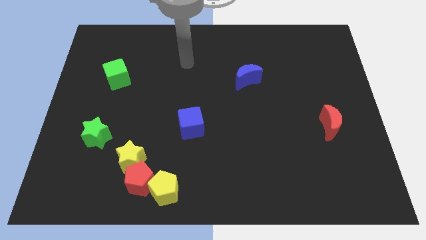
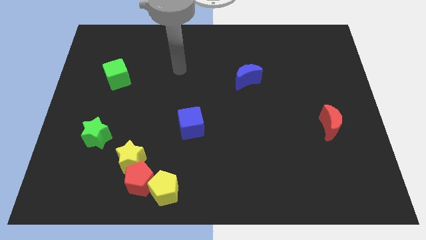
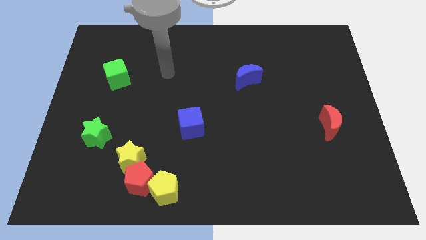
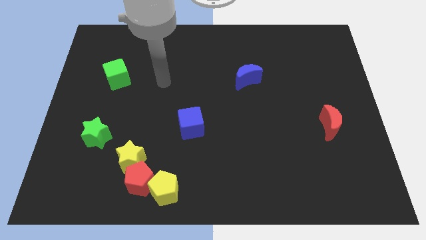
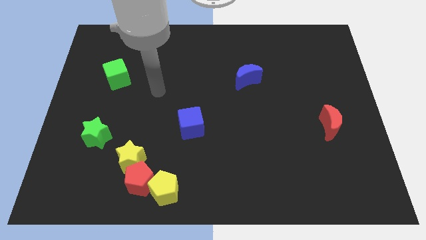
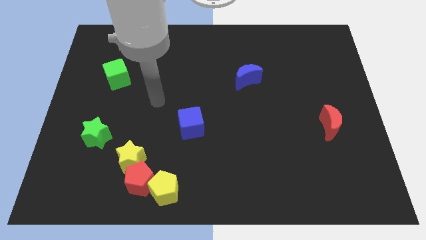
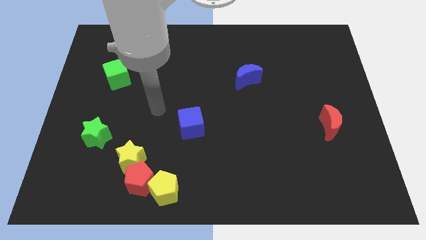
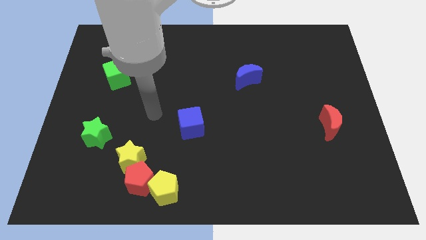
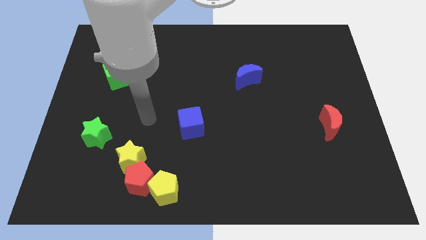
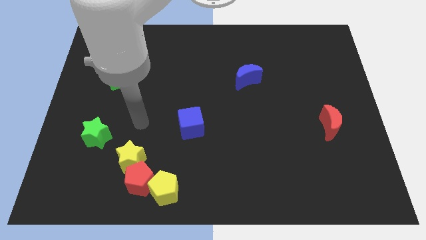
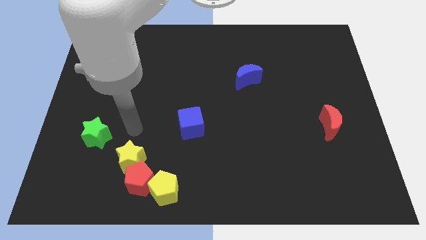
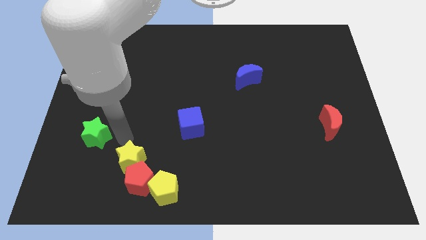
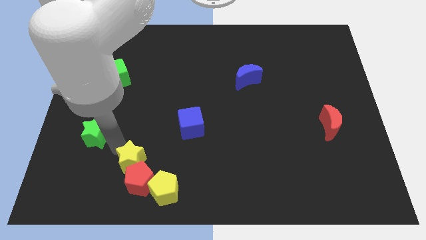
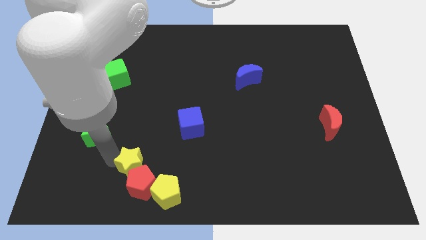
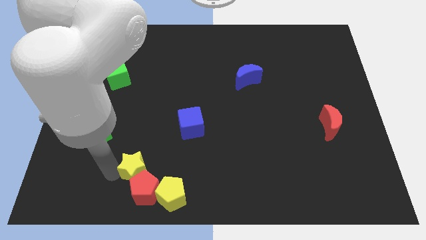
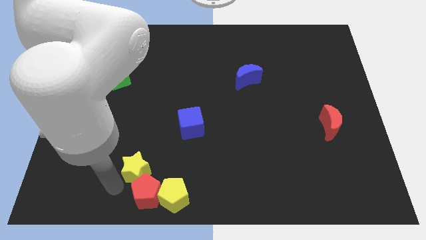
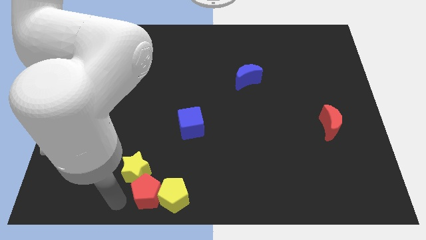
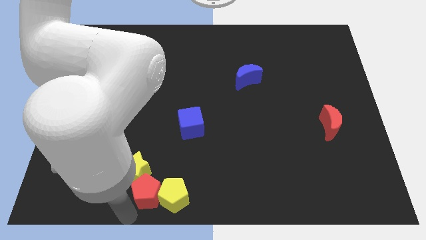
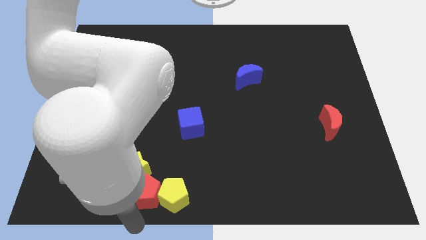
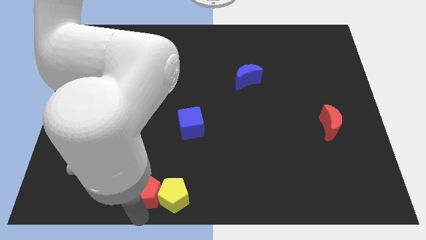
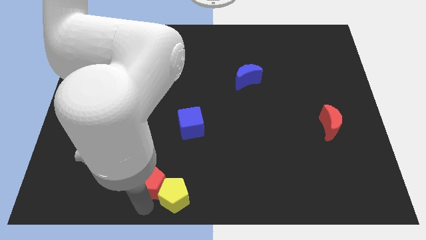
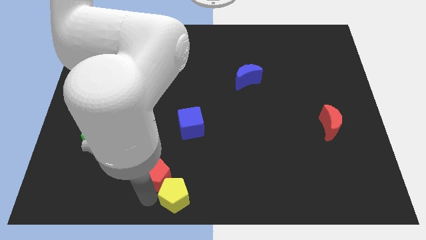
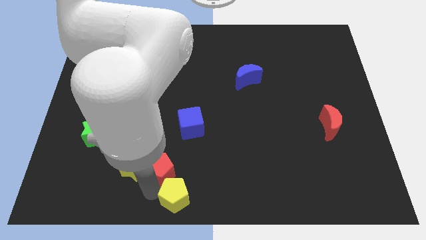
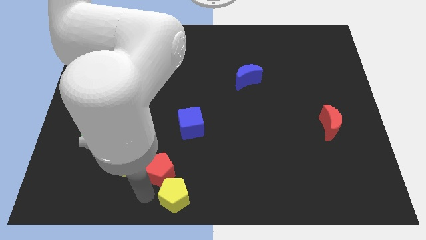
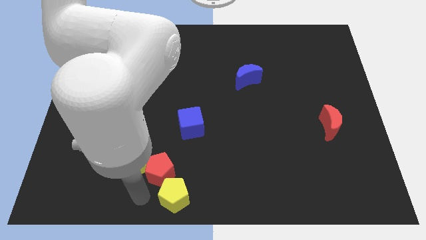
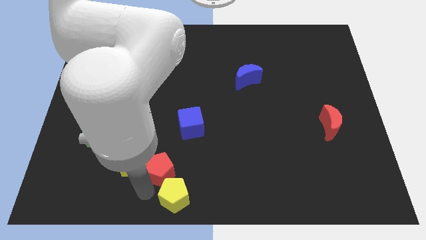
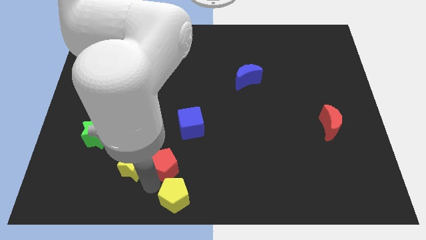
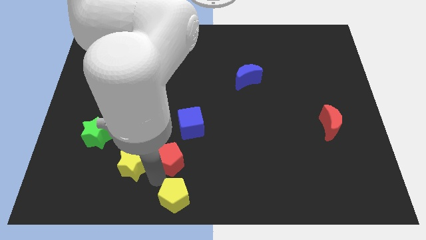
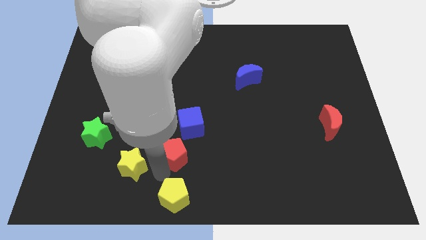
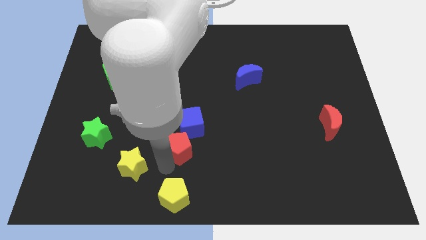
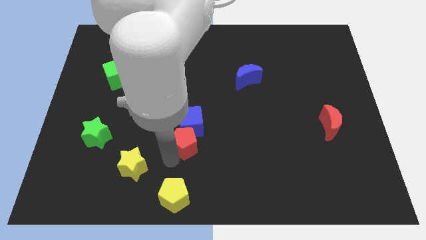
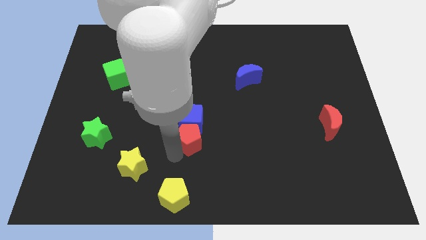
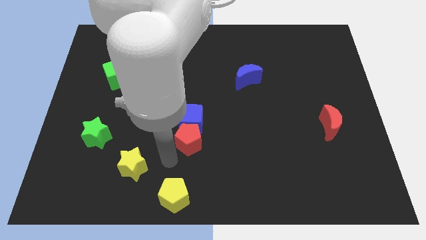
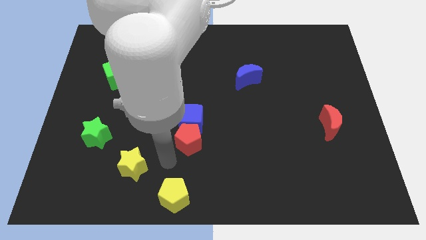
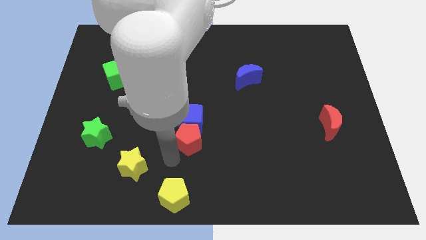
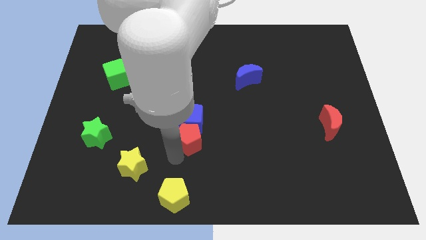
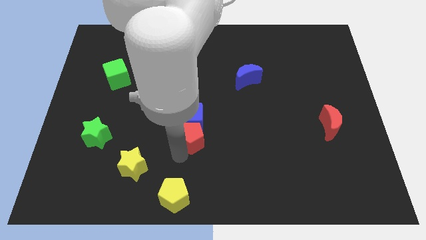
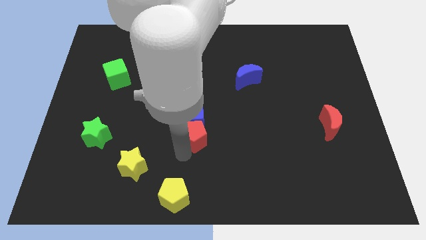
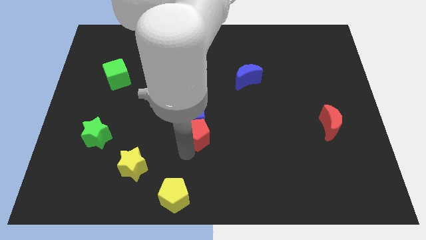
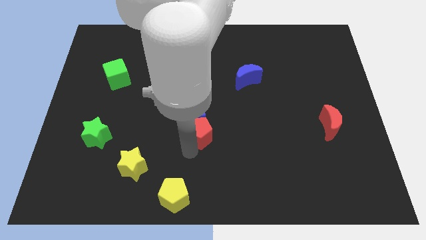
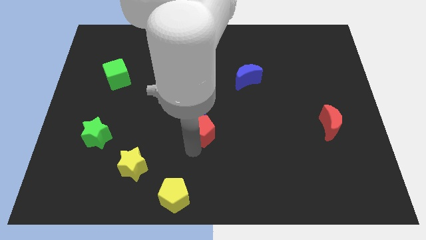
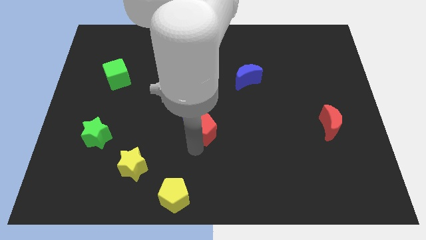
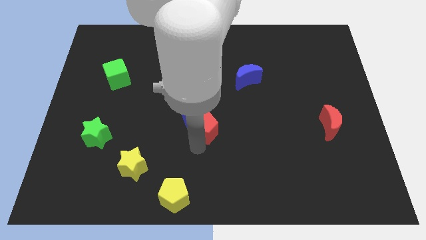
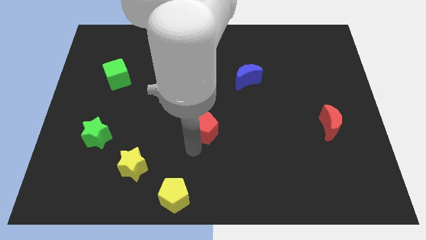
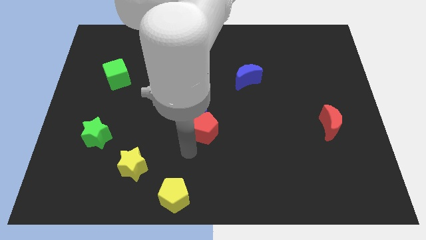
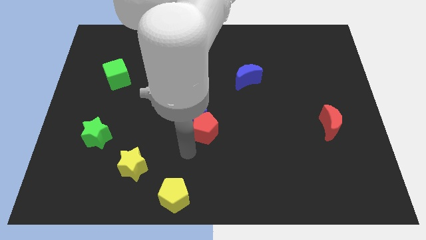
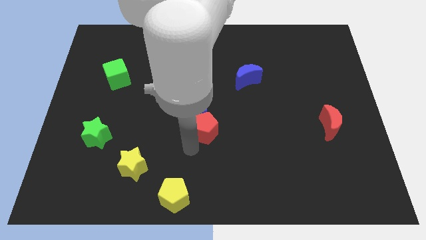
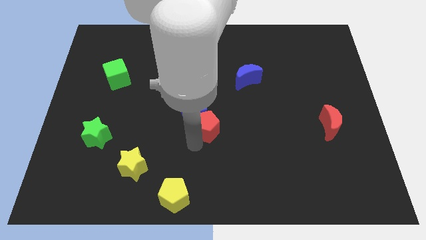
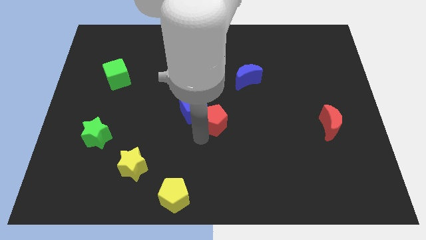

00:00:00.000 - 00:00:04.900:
slide the red pentagon diagonally up and to the right

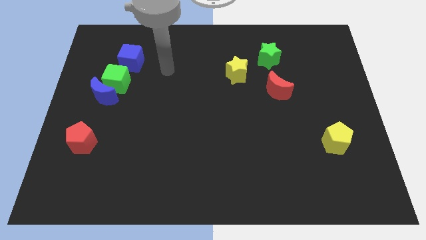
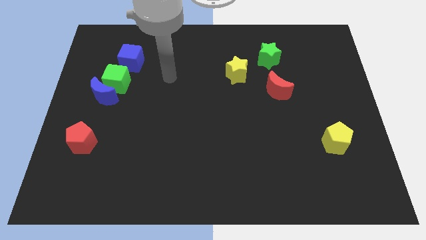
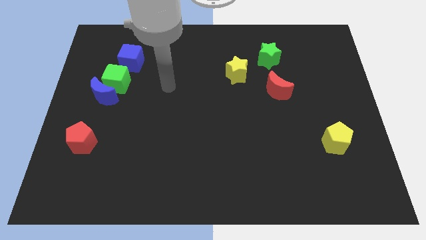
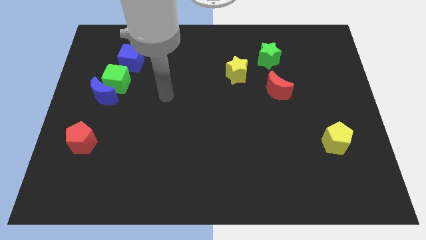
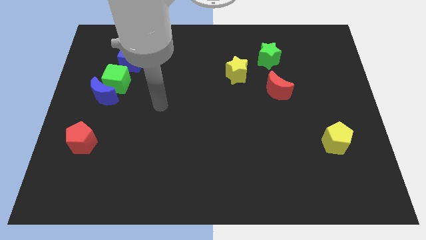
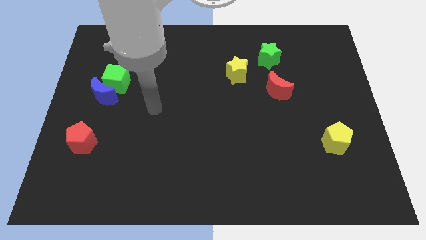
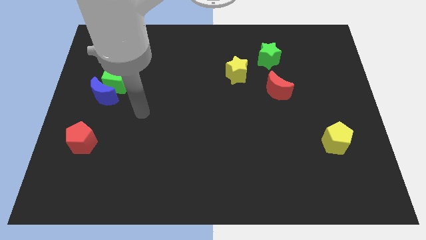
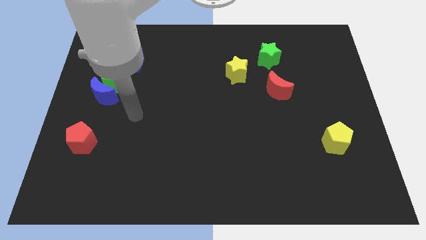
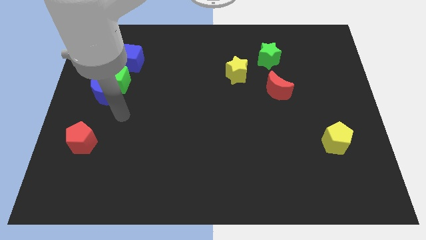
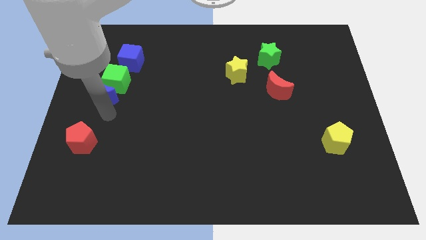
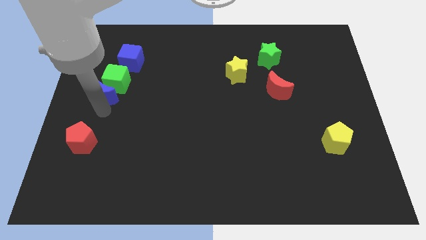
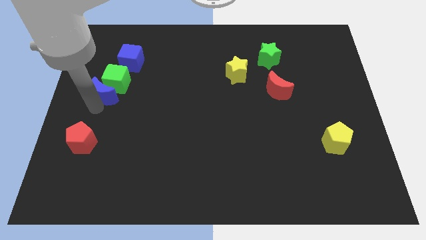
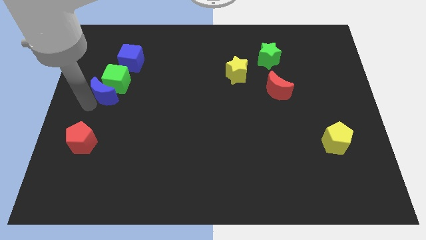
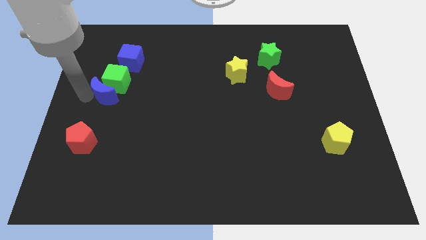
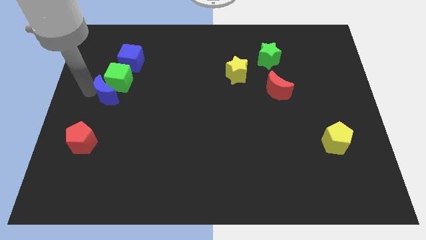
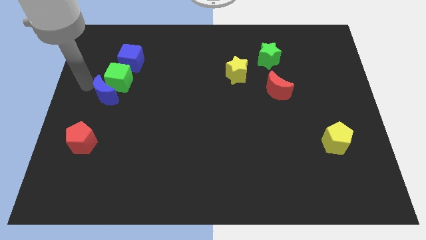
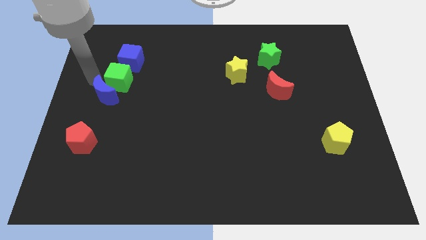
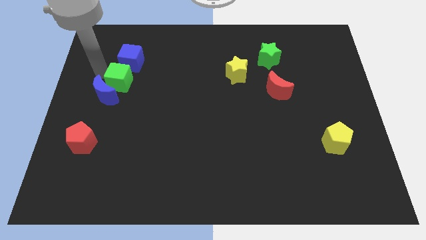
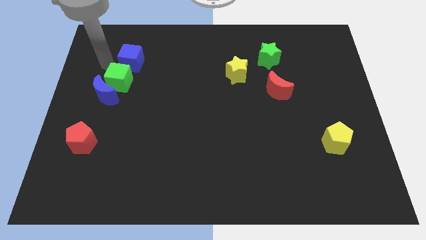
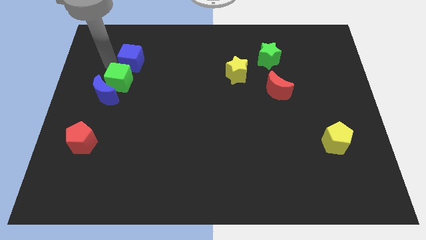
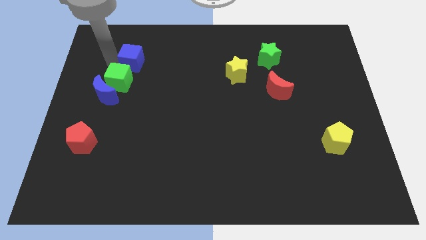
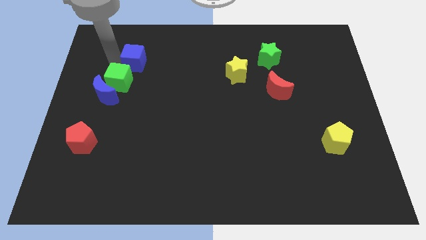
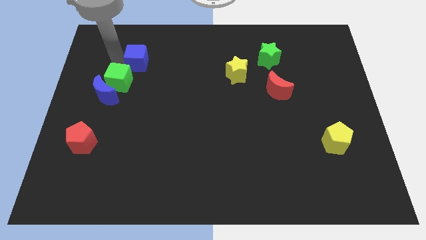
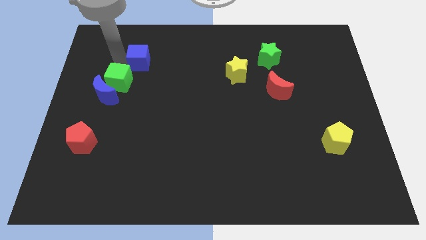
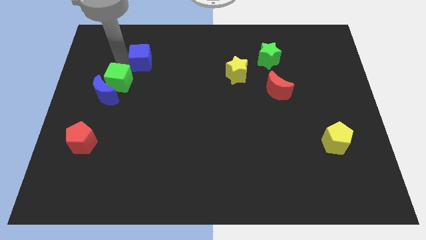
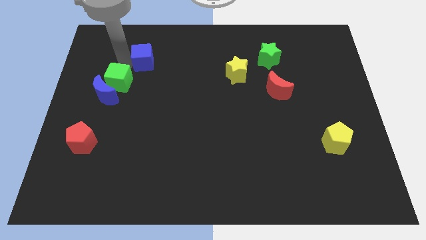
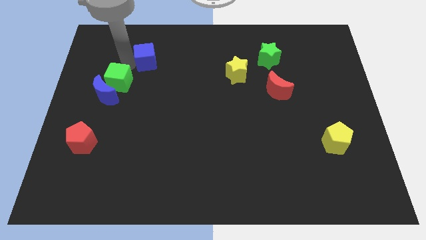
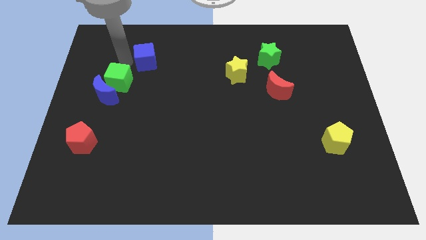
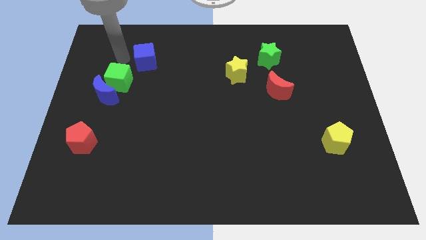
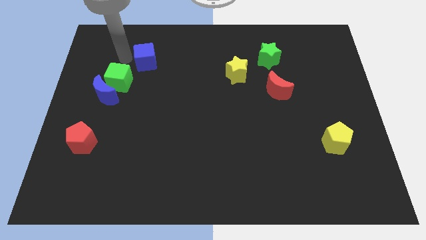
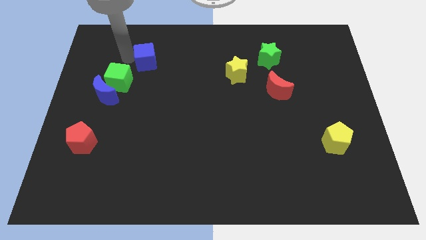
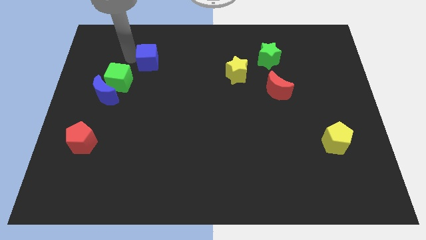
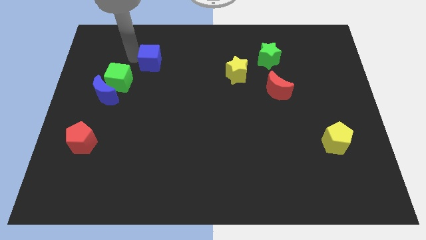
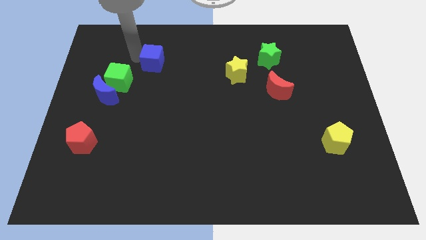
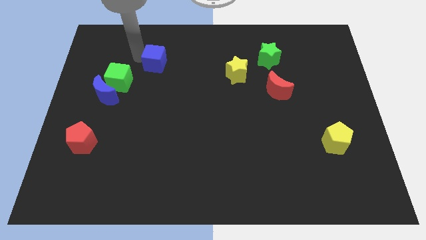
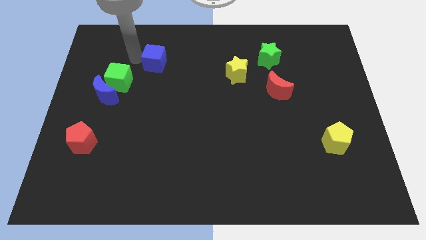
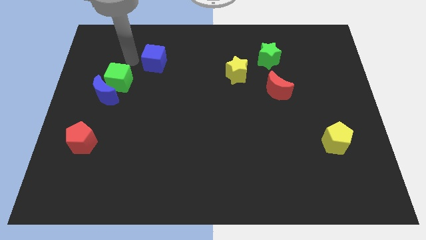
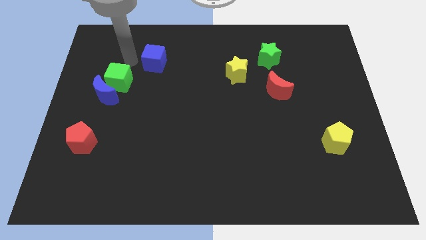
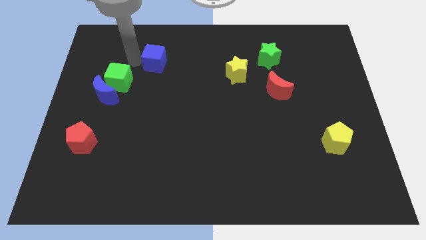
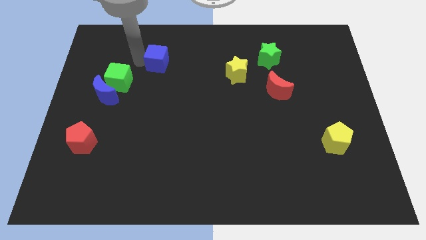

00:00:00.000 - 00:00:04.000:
slightly move the blue cube right
